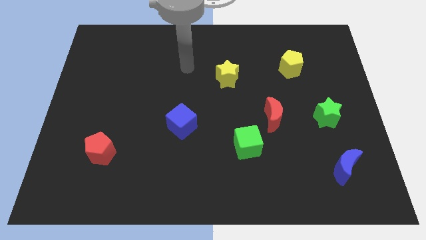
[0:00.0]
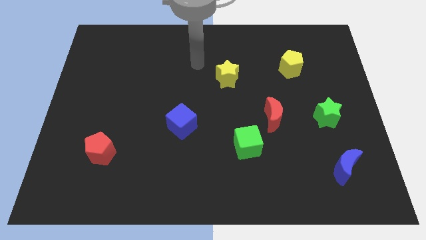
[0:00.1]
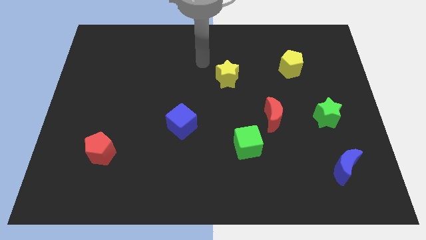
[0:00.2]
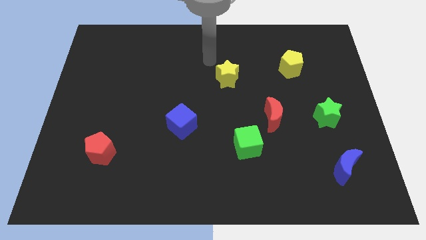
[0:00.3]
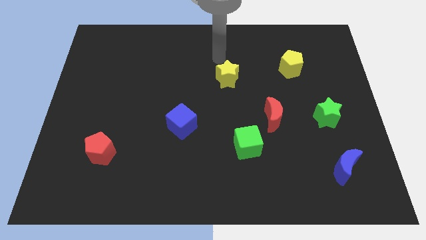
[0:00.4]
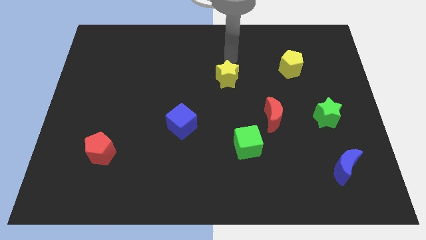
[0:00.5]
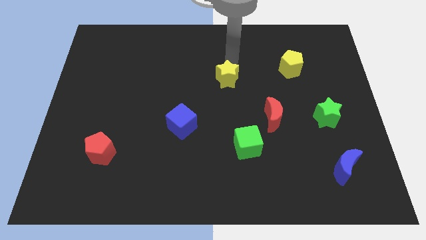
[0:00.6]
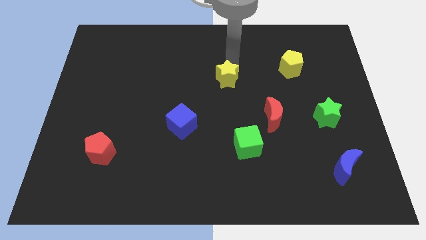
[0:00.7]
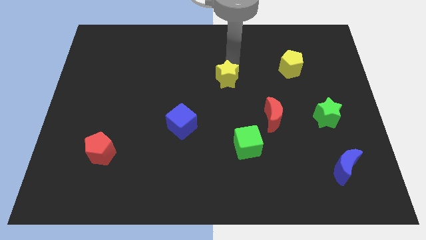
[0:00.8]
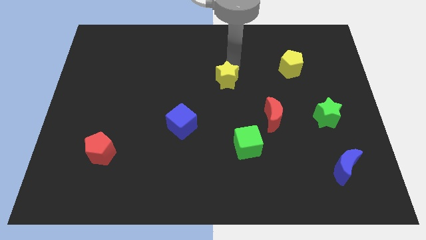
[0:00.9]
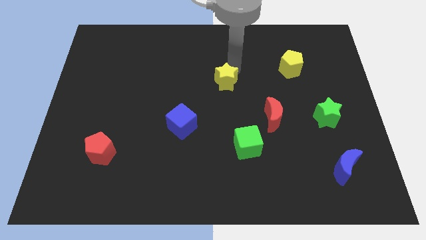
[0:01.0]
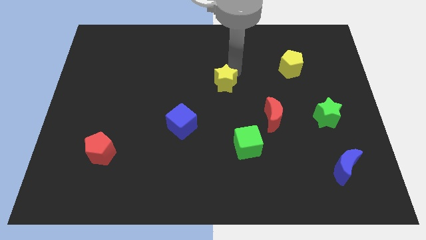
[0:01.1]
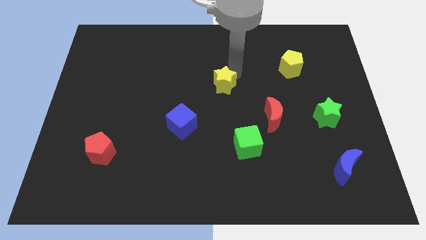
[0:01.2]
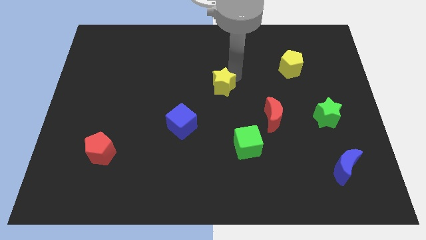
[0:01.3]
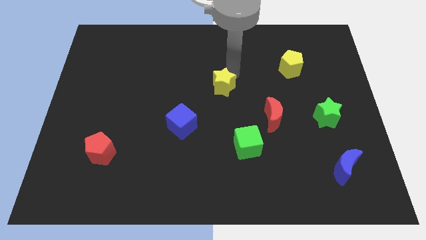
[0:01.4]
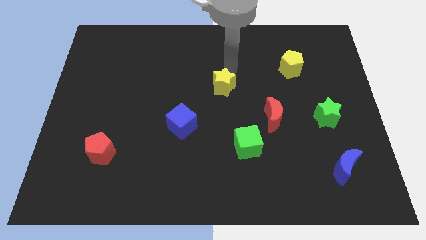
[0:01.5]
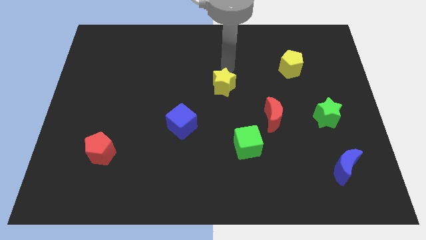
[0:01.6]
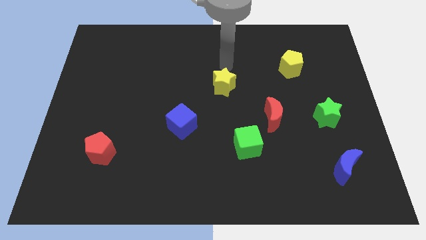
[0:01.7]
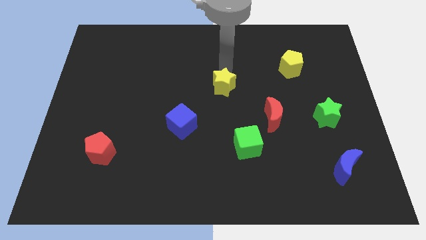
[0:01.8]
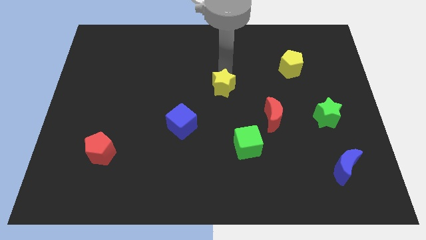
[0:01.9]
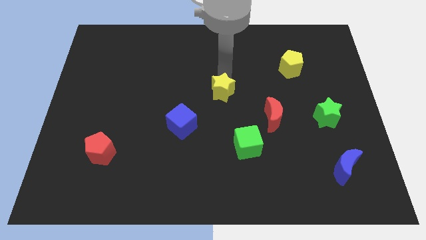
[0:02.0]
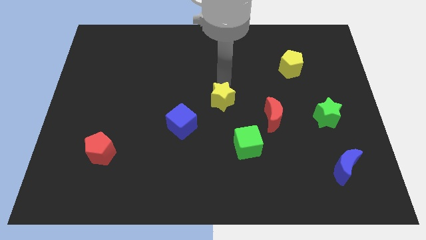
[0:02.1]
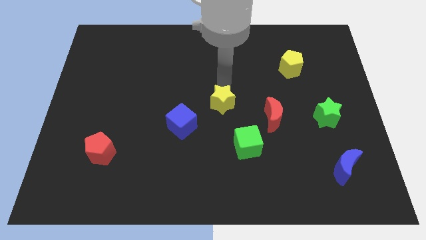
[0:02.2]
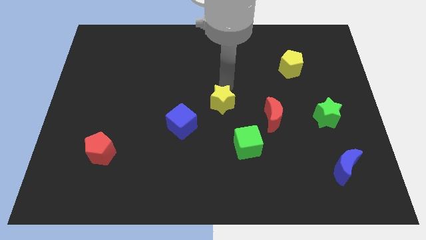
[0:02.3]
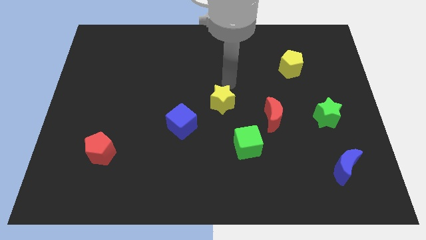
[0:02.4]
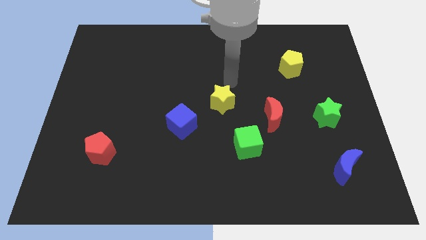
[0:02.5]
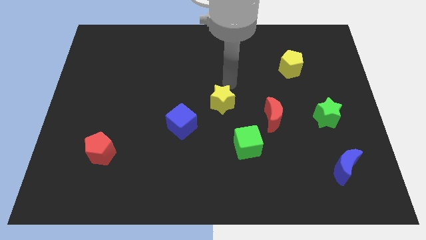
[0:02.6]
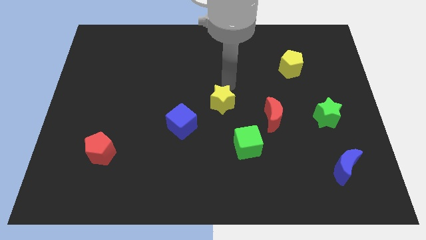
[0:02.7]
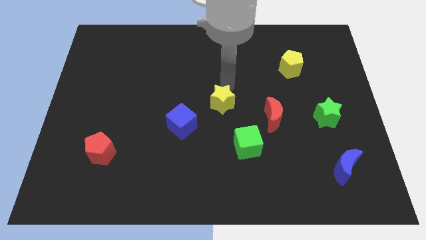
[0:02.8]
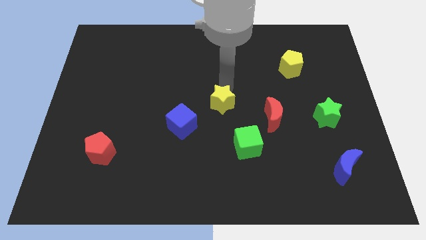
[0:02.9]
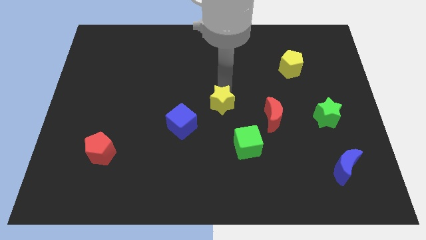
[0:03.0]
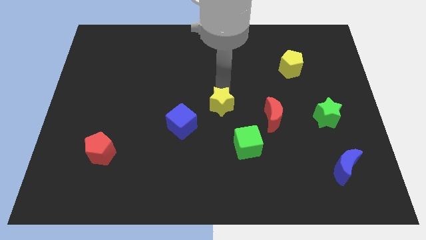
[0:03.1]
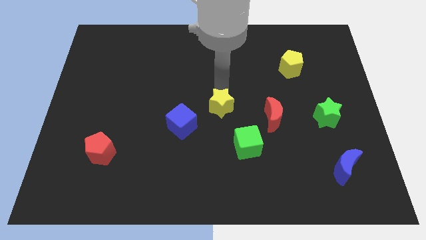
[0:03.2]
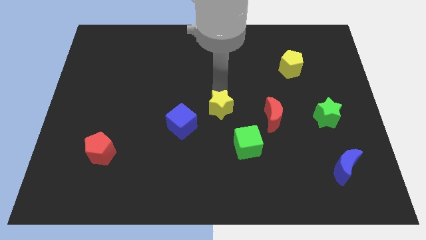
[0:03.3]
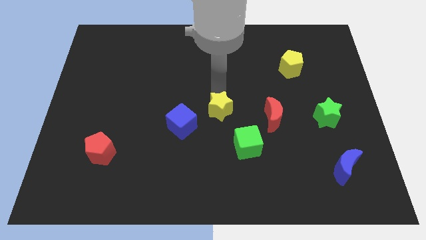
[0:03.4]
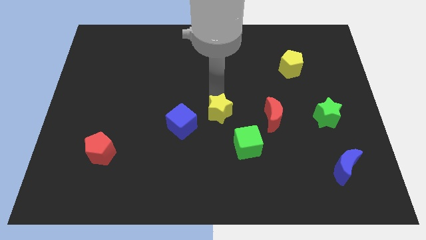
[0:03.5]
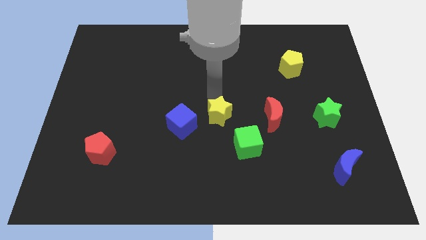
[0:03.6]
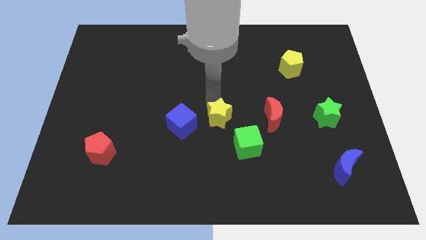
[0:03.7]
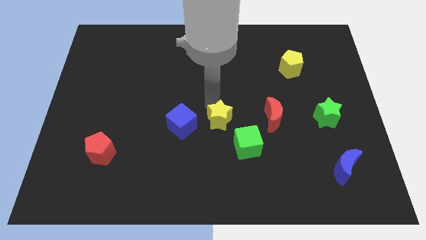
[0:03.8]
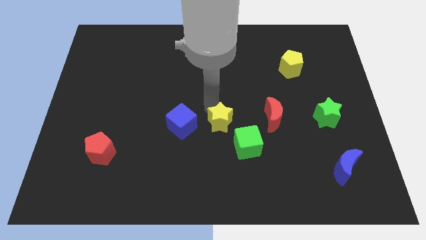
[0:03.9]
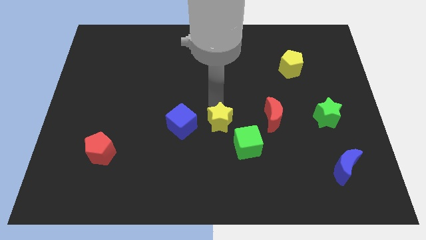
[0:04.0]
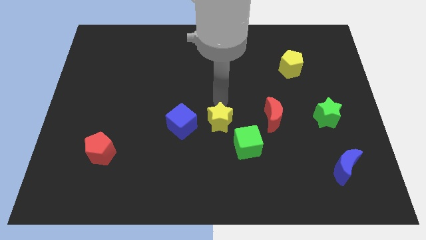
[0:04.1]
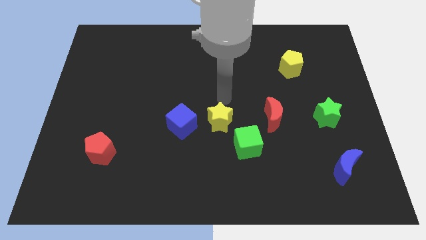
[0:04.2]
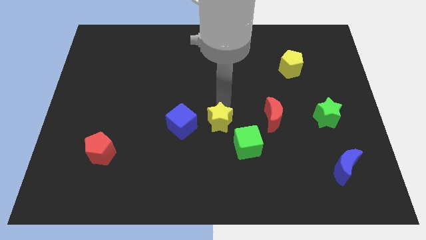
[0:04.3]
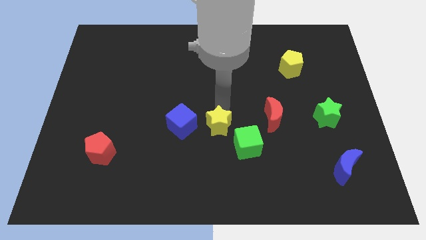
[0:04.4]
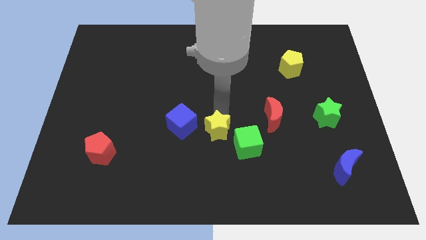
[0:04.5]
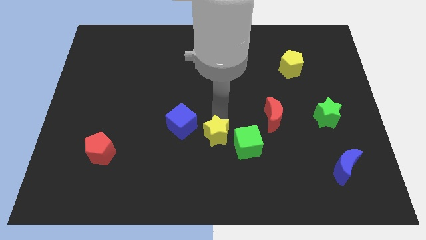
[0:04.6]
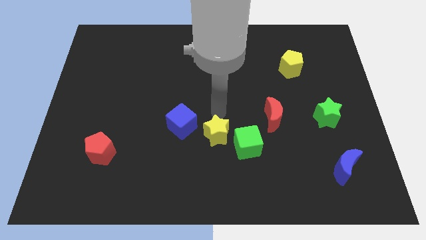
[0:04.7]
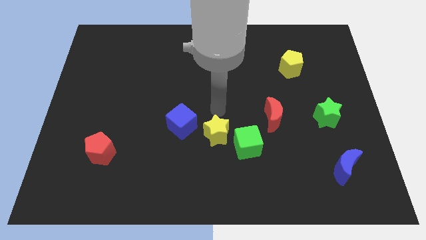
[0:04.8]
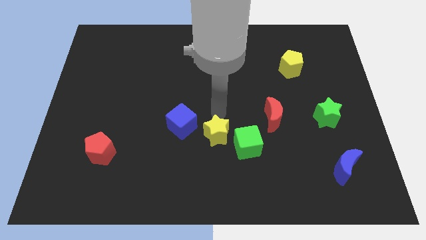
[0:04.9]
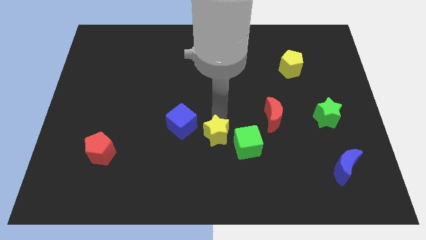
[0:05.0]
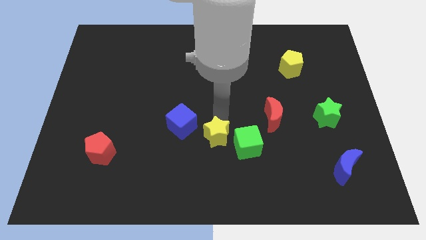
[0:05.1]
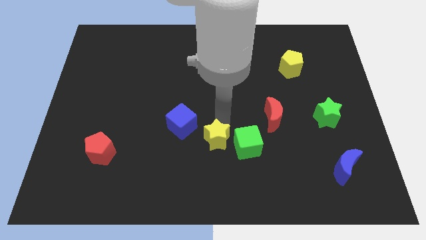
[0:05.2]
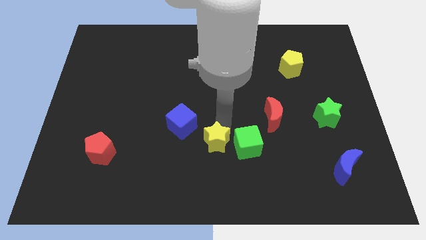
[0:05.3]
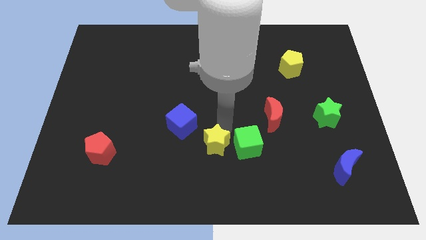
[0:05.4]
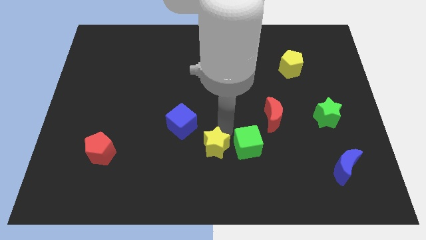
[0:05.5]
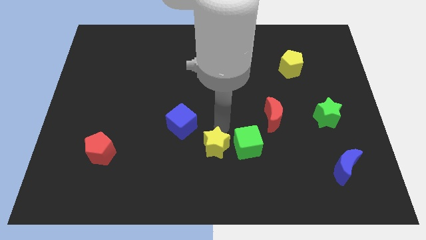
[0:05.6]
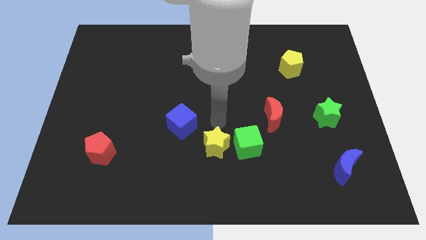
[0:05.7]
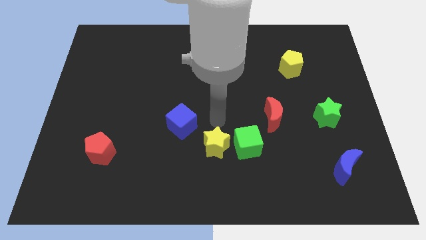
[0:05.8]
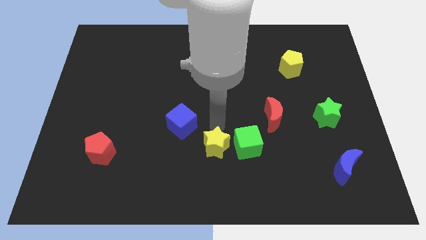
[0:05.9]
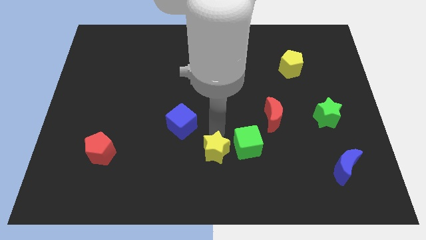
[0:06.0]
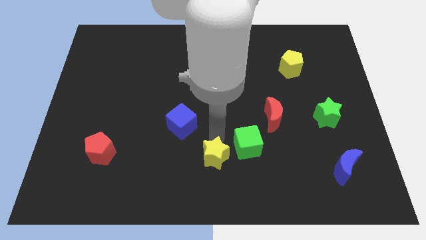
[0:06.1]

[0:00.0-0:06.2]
move the yellow star to the bottom

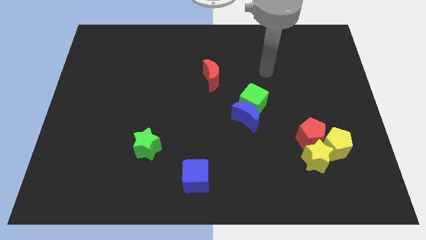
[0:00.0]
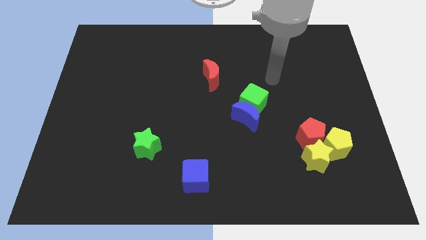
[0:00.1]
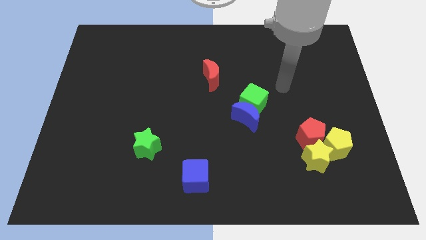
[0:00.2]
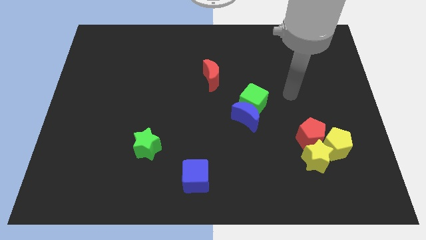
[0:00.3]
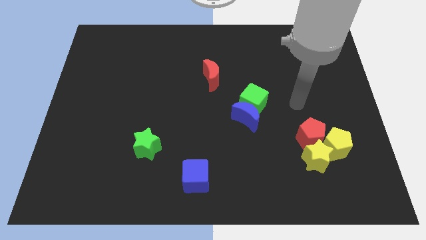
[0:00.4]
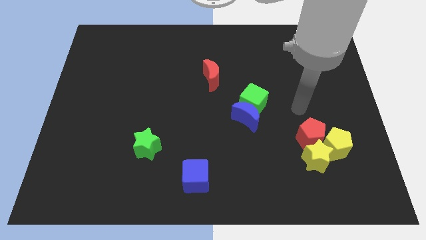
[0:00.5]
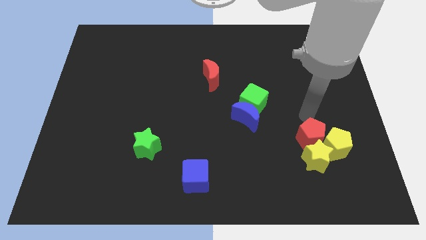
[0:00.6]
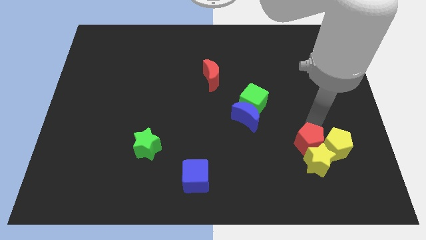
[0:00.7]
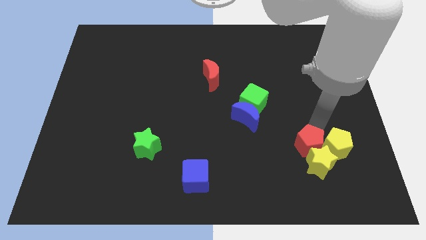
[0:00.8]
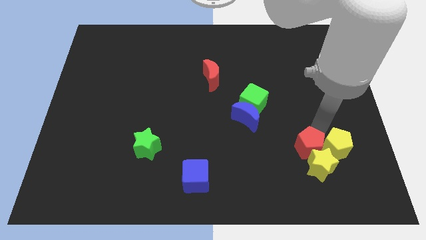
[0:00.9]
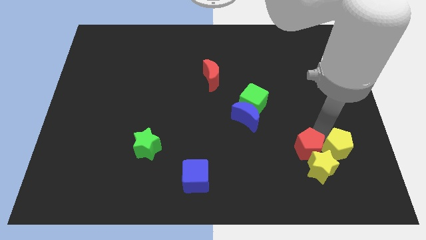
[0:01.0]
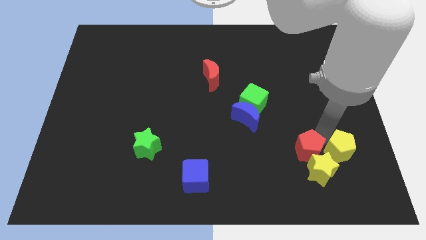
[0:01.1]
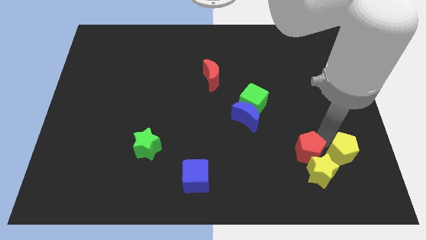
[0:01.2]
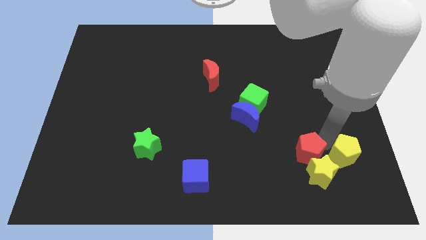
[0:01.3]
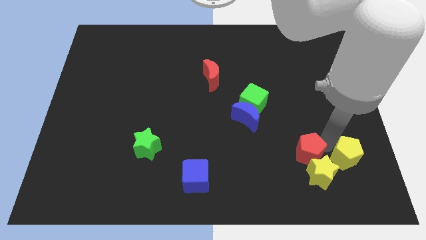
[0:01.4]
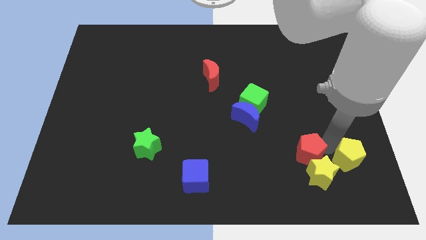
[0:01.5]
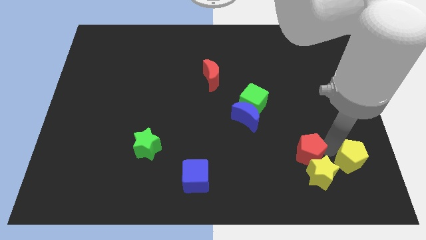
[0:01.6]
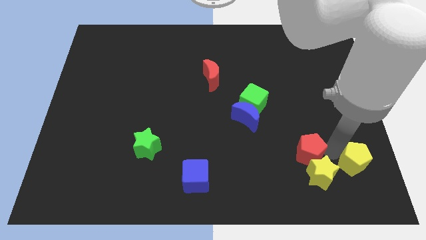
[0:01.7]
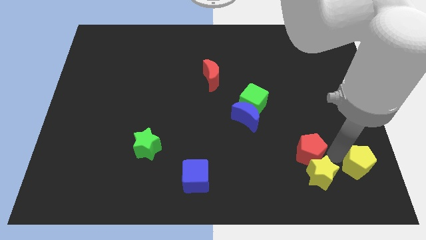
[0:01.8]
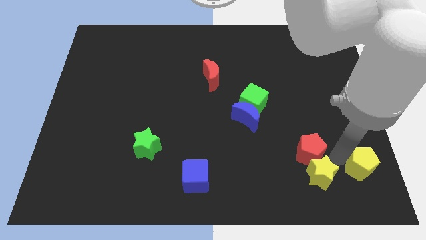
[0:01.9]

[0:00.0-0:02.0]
put the yellow pentagon to the bottom right corner
